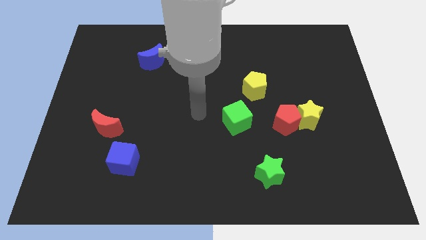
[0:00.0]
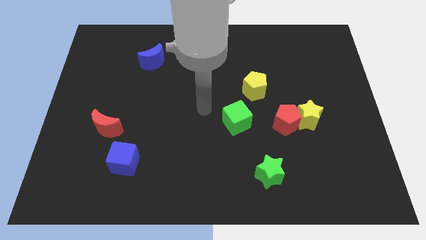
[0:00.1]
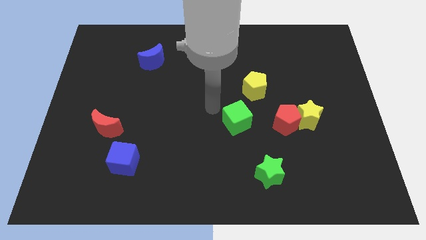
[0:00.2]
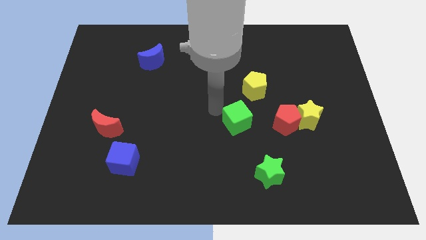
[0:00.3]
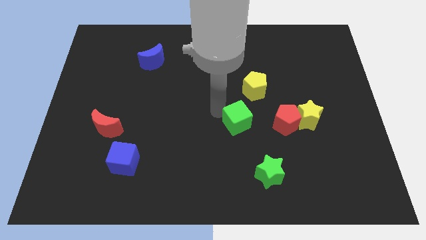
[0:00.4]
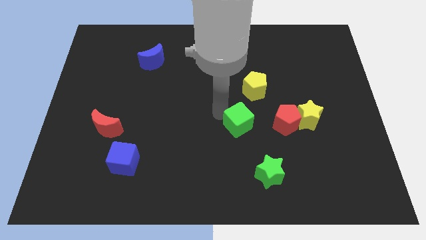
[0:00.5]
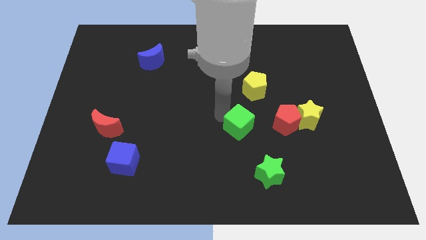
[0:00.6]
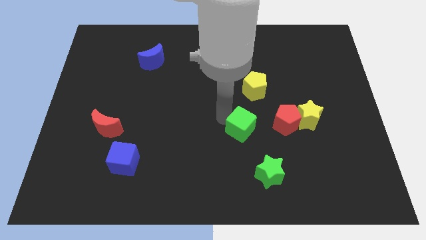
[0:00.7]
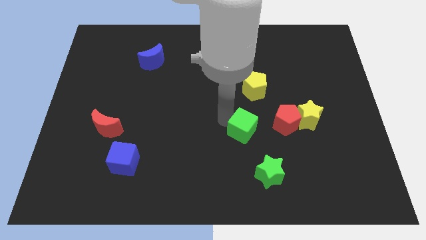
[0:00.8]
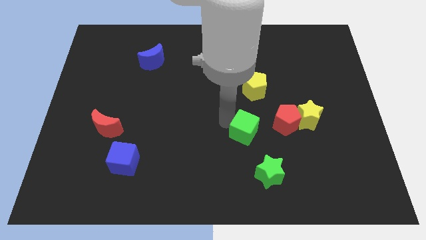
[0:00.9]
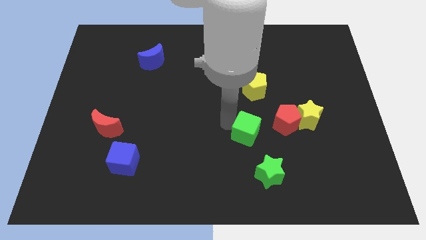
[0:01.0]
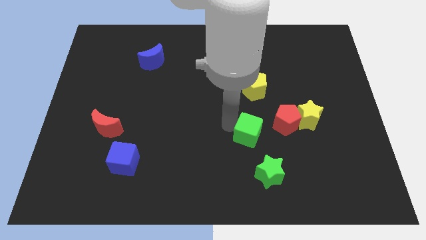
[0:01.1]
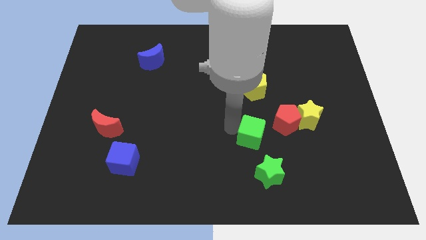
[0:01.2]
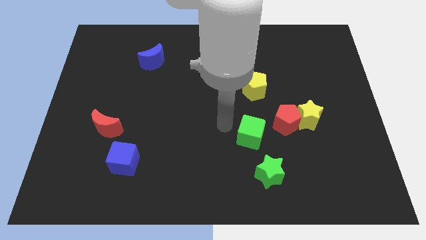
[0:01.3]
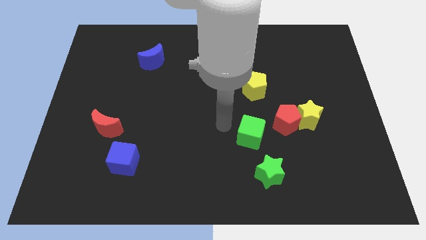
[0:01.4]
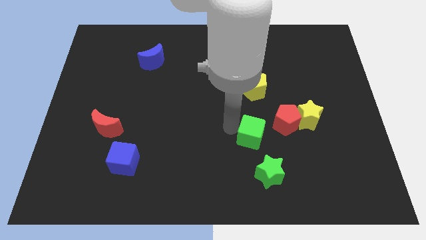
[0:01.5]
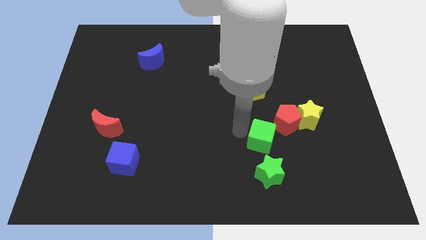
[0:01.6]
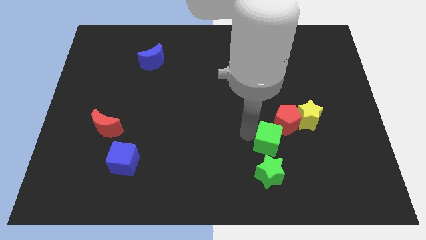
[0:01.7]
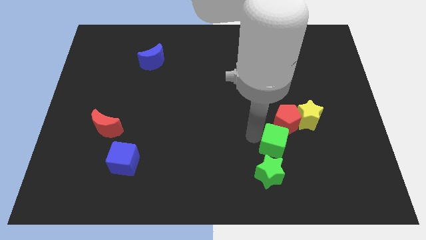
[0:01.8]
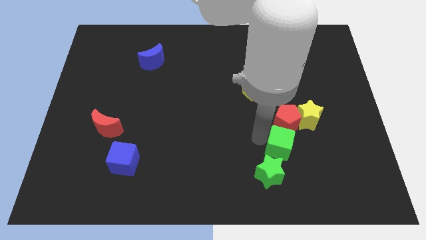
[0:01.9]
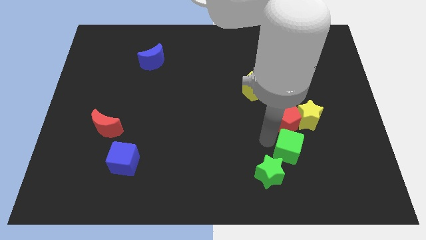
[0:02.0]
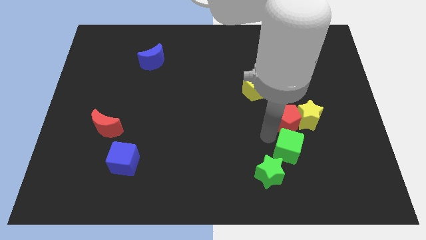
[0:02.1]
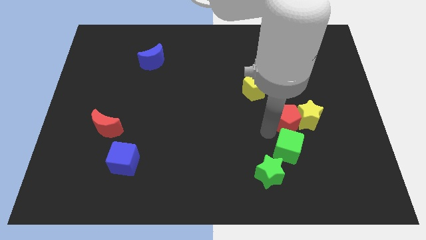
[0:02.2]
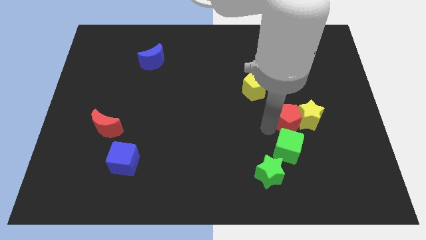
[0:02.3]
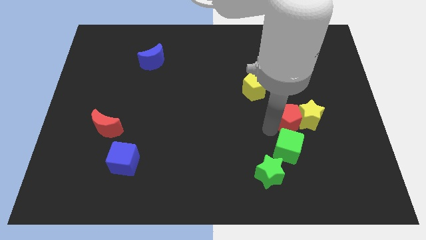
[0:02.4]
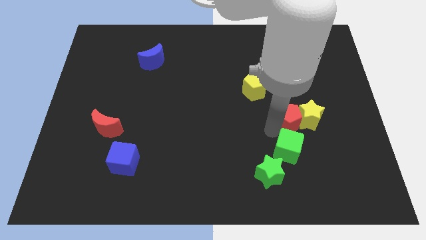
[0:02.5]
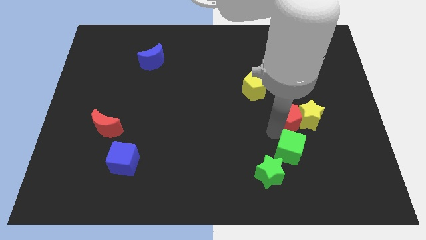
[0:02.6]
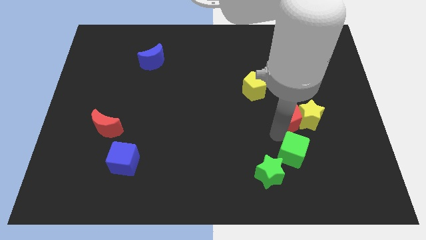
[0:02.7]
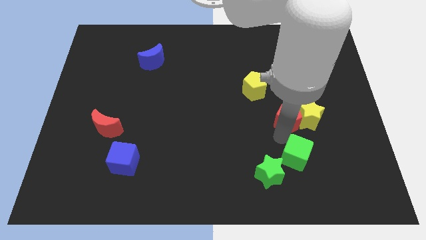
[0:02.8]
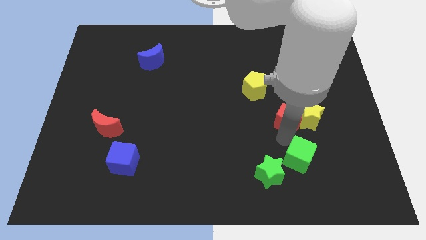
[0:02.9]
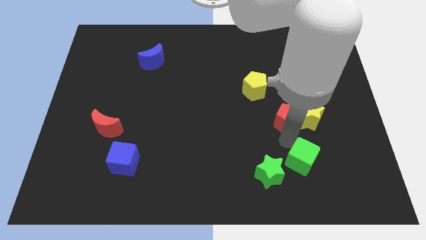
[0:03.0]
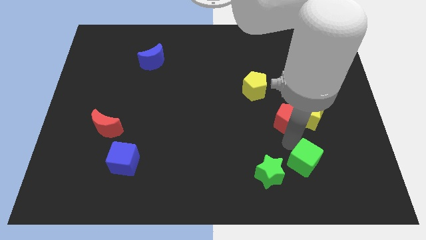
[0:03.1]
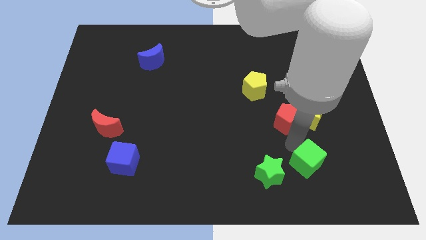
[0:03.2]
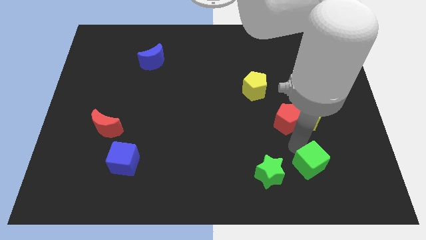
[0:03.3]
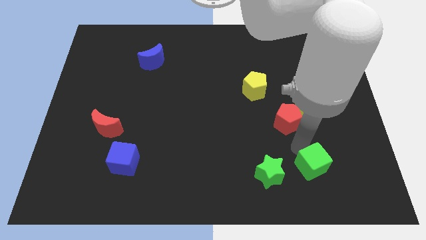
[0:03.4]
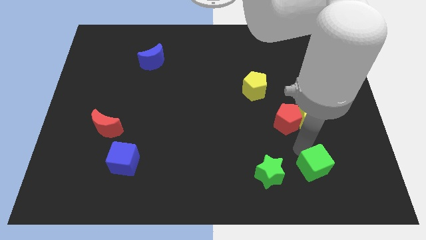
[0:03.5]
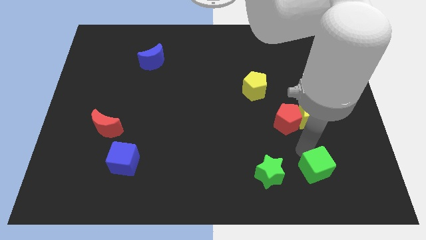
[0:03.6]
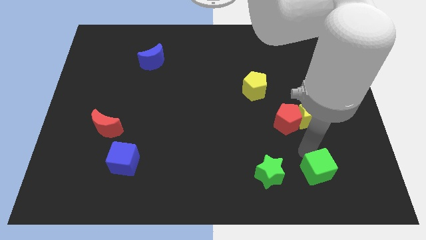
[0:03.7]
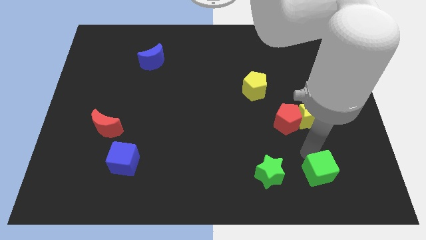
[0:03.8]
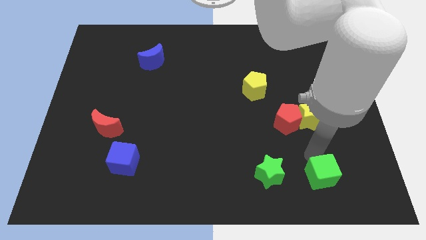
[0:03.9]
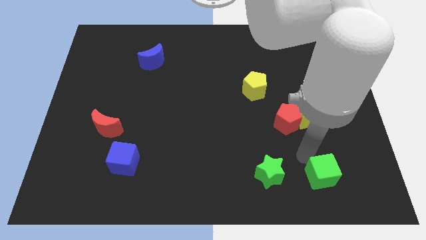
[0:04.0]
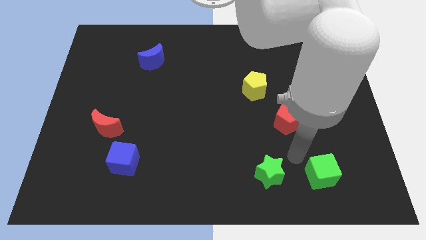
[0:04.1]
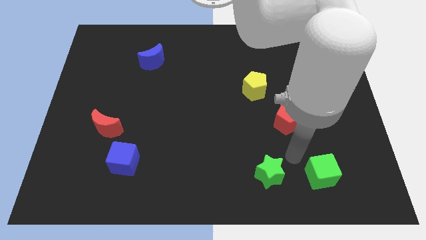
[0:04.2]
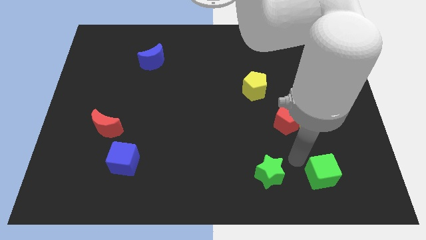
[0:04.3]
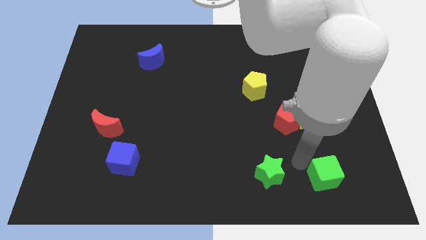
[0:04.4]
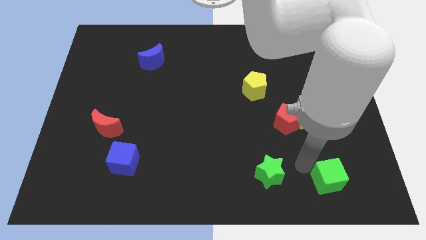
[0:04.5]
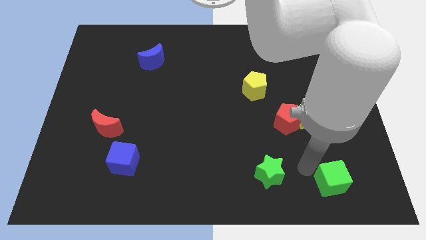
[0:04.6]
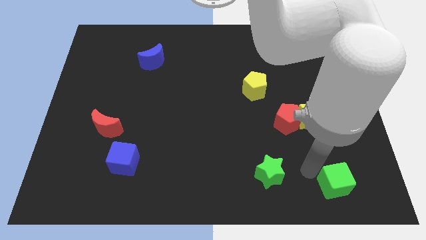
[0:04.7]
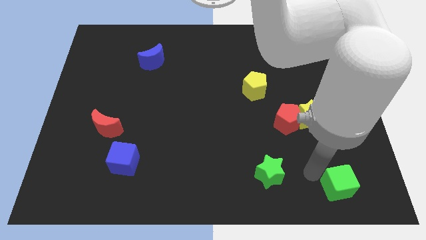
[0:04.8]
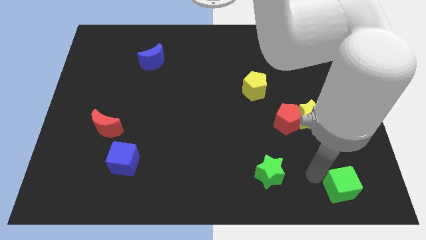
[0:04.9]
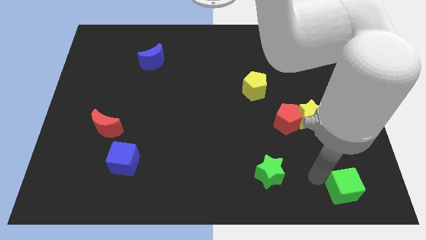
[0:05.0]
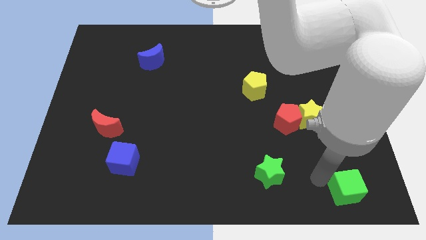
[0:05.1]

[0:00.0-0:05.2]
put the green cube to the lower right corner

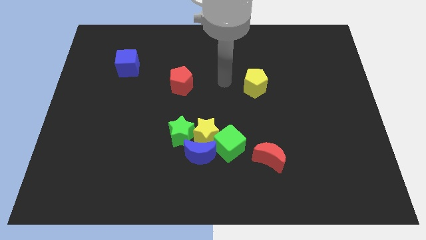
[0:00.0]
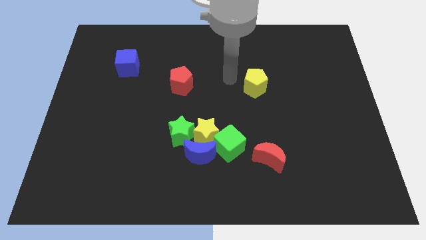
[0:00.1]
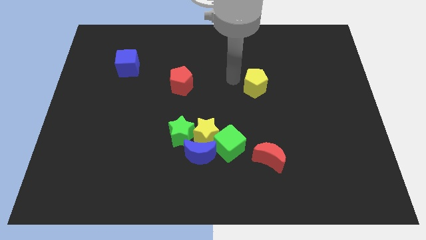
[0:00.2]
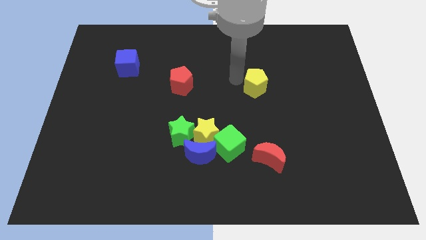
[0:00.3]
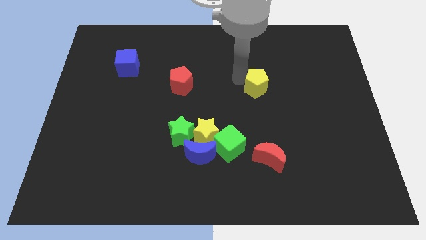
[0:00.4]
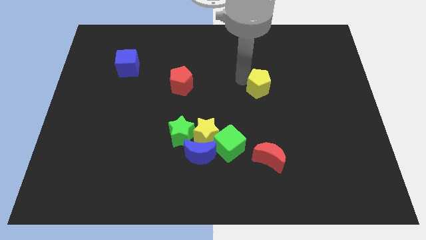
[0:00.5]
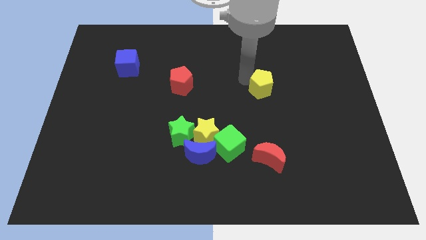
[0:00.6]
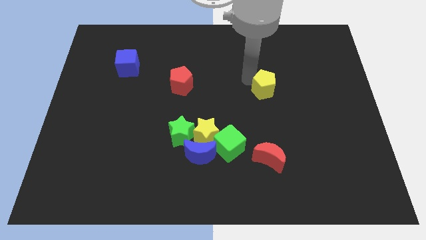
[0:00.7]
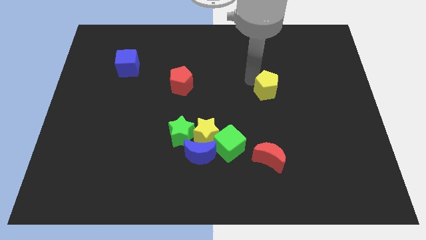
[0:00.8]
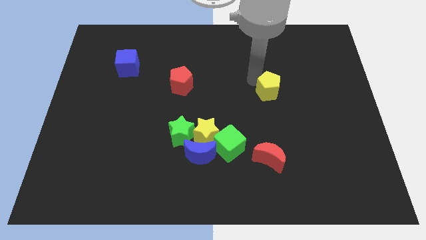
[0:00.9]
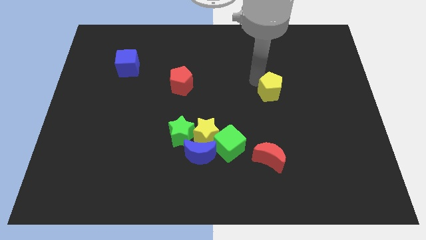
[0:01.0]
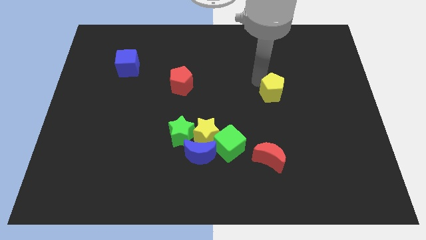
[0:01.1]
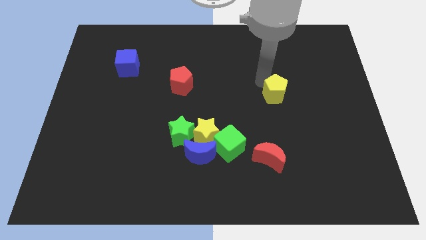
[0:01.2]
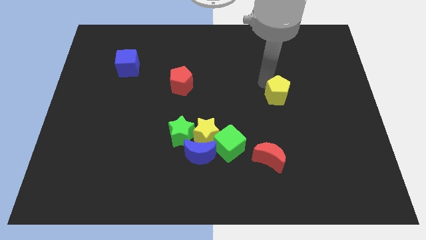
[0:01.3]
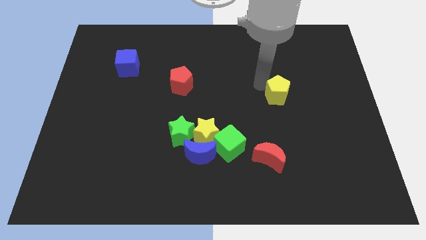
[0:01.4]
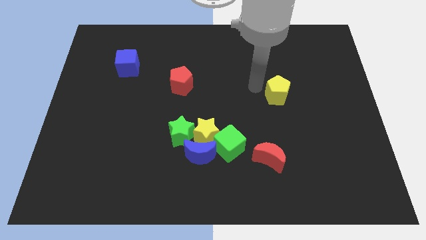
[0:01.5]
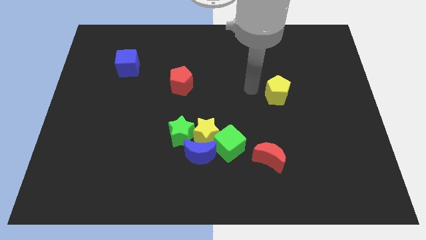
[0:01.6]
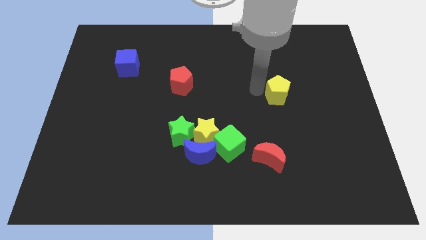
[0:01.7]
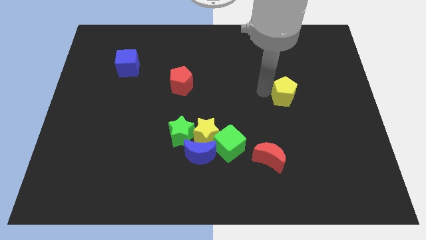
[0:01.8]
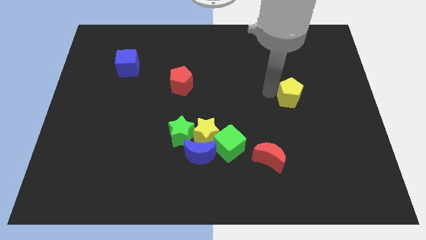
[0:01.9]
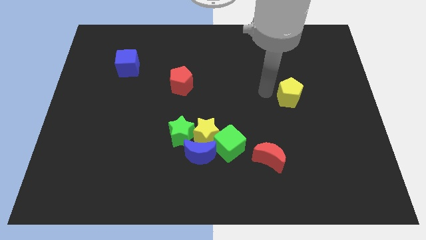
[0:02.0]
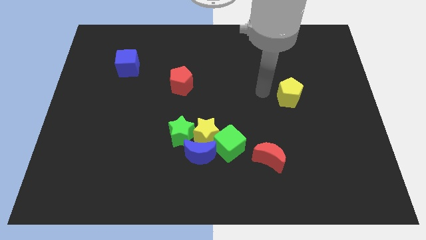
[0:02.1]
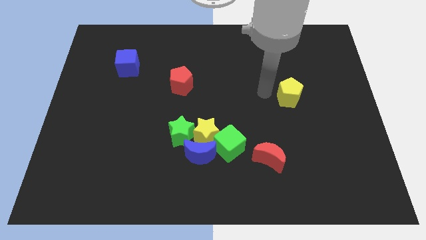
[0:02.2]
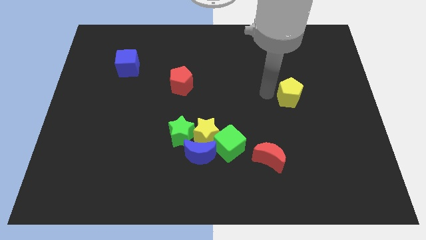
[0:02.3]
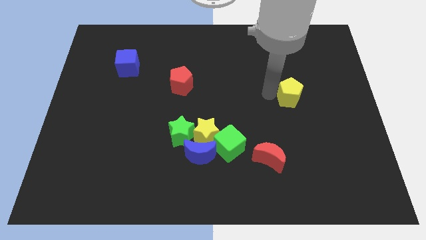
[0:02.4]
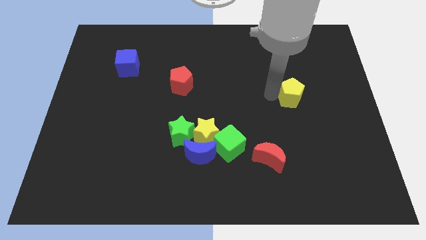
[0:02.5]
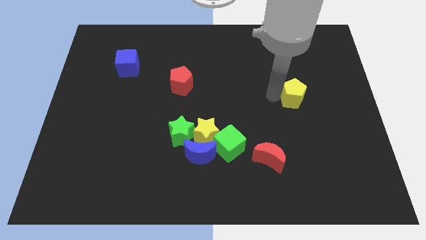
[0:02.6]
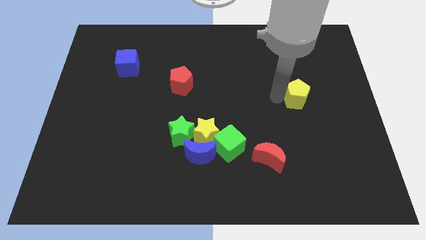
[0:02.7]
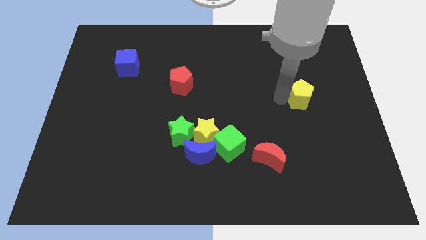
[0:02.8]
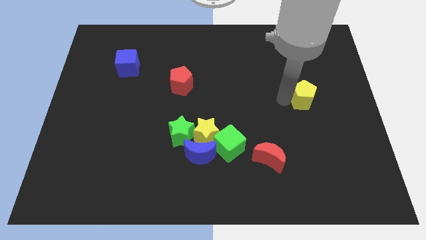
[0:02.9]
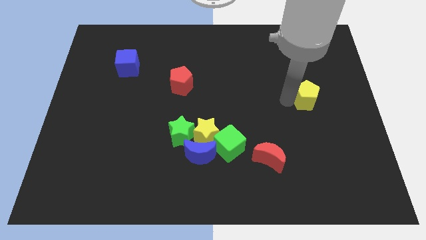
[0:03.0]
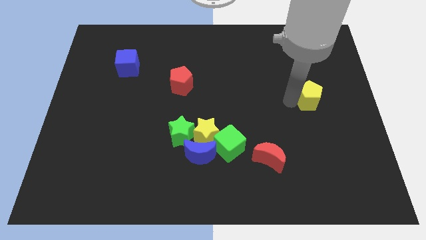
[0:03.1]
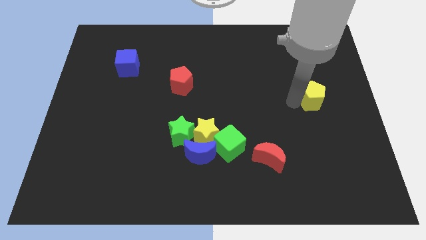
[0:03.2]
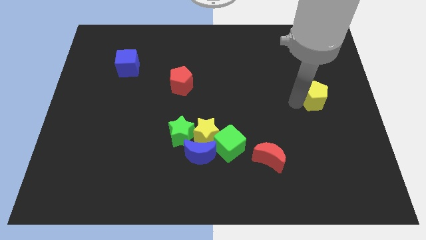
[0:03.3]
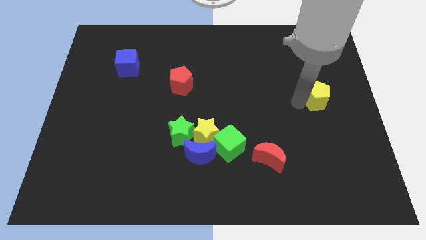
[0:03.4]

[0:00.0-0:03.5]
slide the yellow pentagon to the right side
